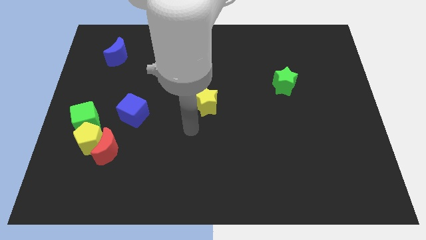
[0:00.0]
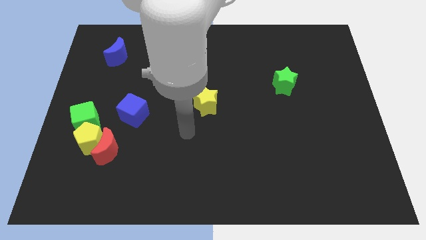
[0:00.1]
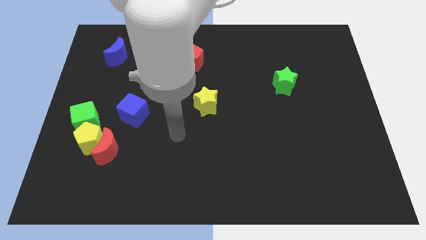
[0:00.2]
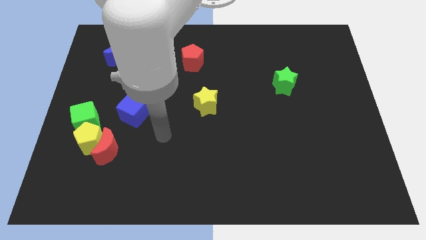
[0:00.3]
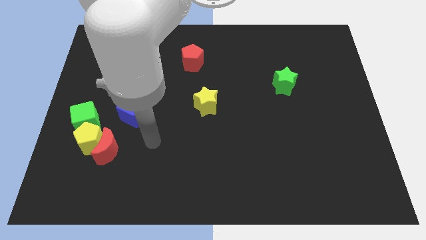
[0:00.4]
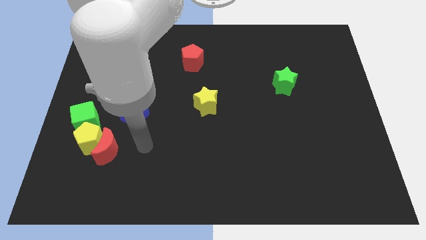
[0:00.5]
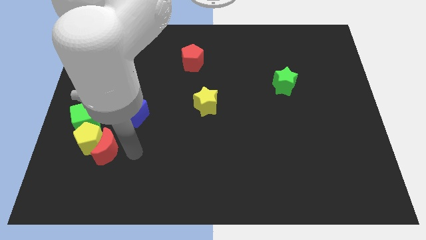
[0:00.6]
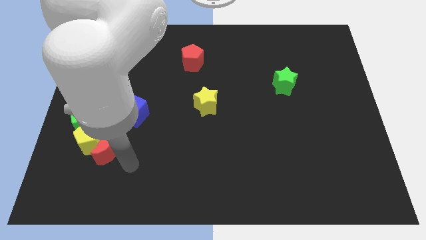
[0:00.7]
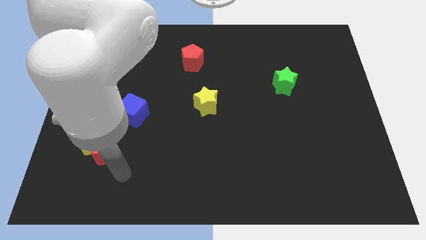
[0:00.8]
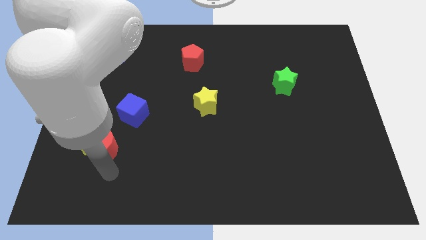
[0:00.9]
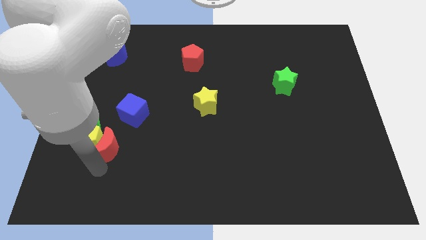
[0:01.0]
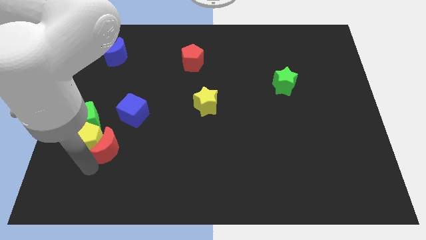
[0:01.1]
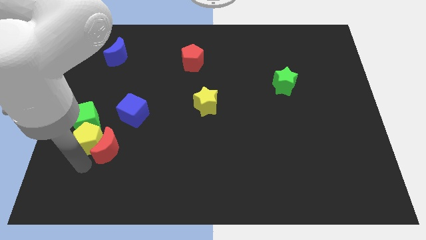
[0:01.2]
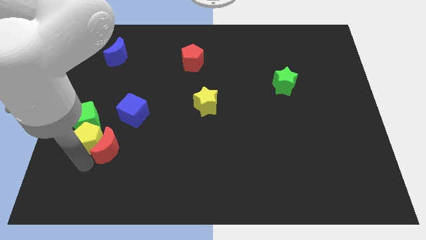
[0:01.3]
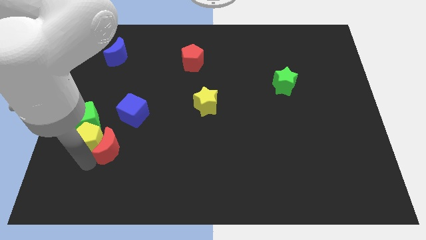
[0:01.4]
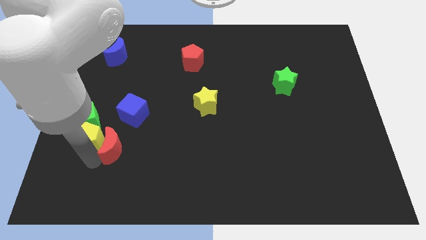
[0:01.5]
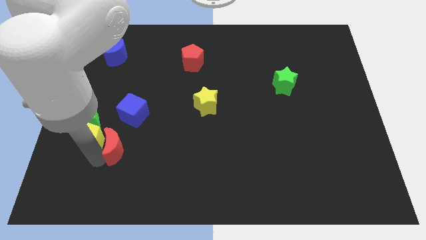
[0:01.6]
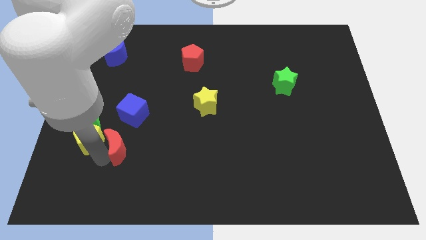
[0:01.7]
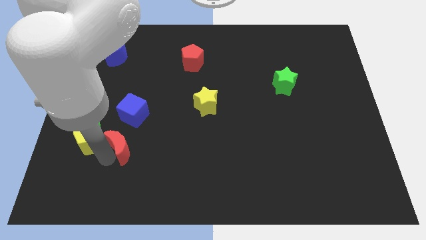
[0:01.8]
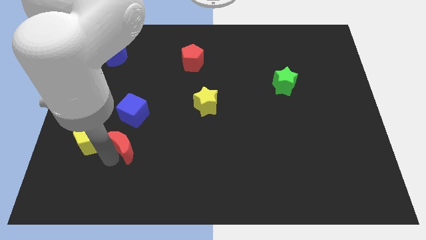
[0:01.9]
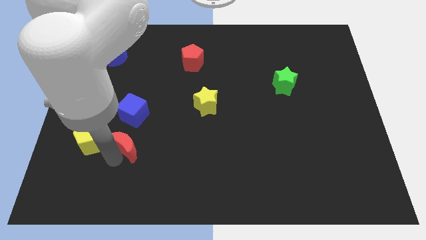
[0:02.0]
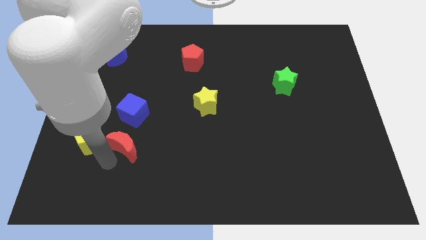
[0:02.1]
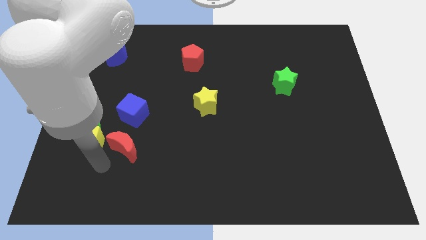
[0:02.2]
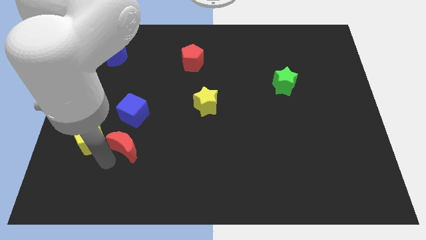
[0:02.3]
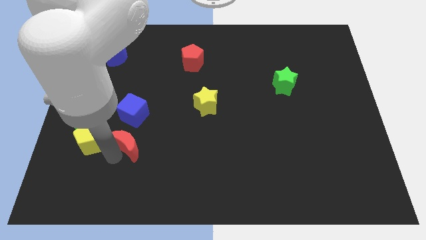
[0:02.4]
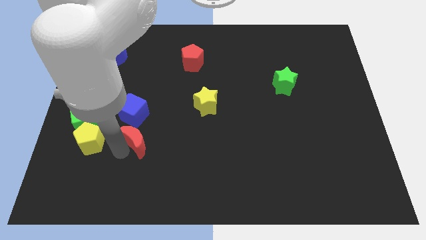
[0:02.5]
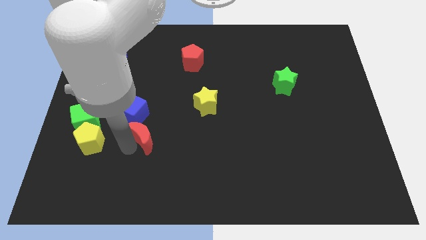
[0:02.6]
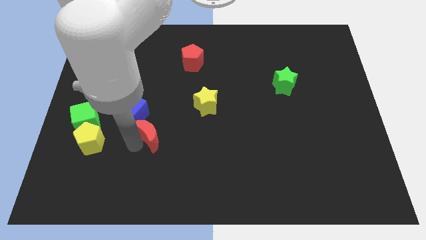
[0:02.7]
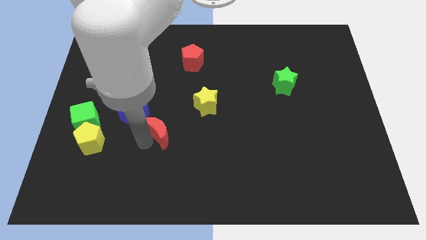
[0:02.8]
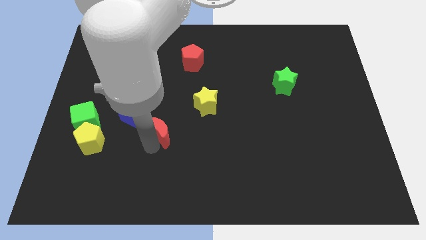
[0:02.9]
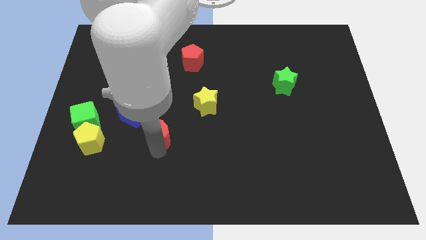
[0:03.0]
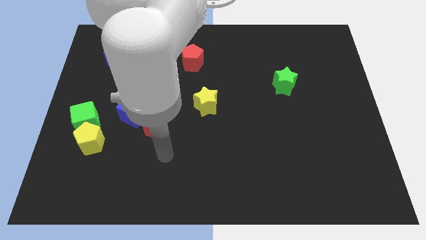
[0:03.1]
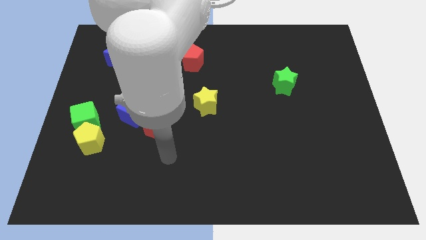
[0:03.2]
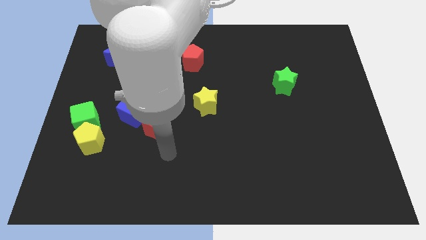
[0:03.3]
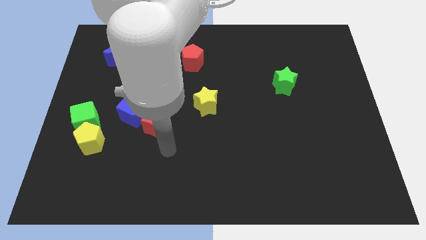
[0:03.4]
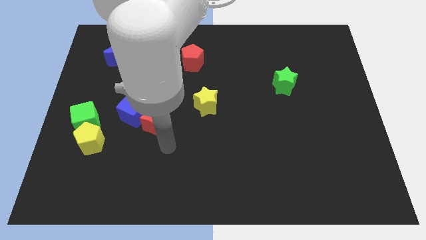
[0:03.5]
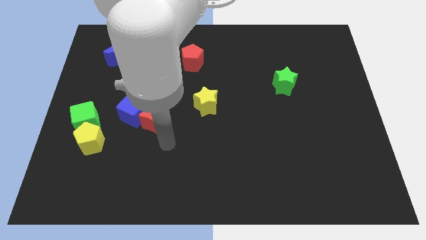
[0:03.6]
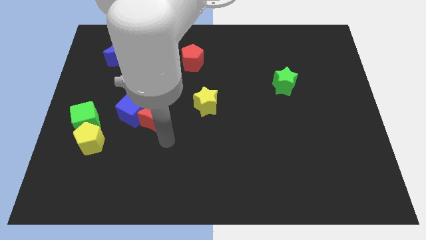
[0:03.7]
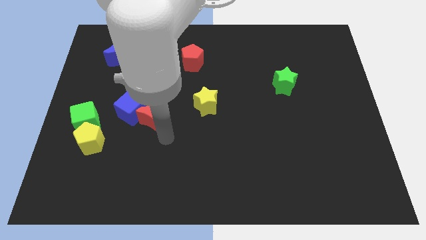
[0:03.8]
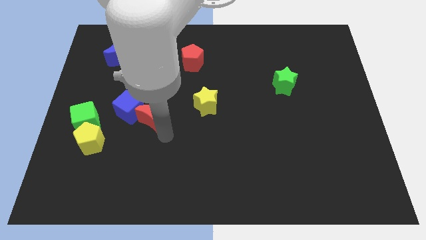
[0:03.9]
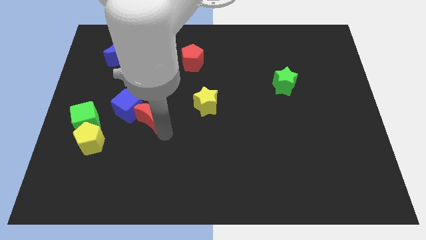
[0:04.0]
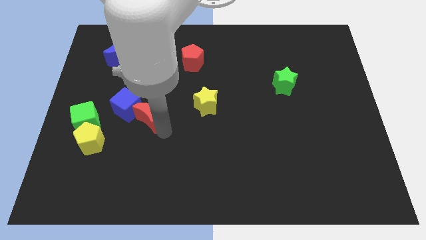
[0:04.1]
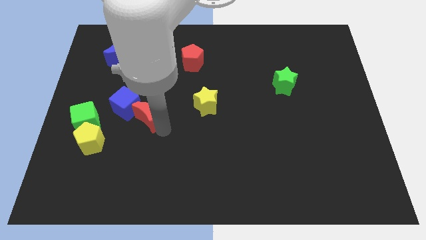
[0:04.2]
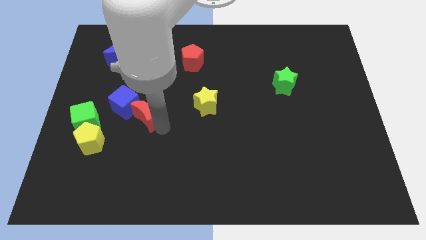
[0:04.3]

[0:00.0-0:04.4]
move the red moon somewhat up

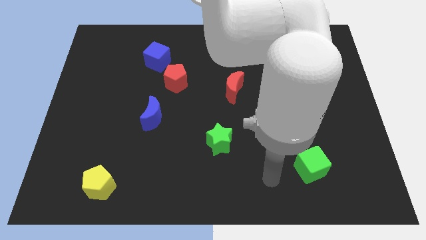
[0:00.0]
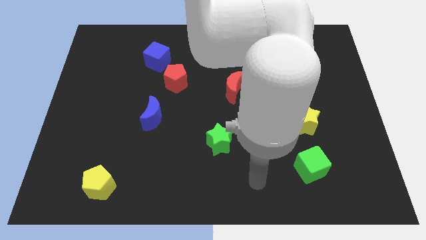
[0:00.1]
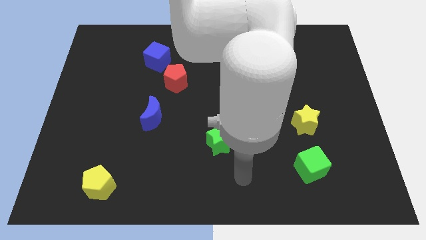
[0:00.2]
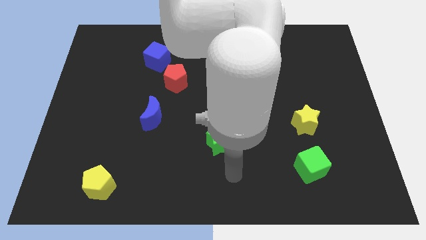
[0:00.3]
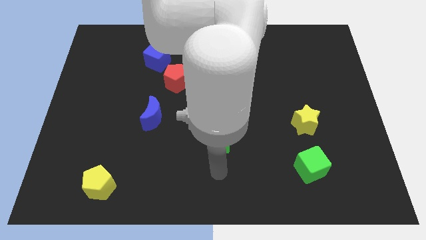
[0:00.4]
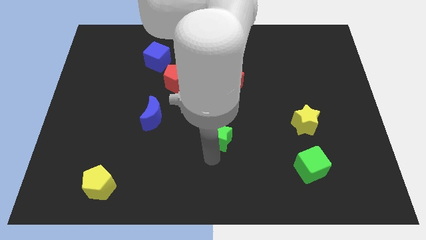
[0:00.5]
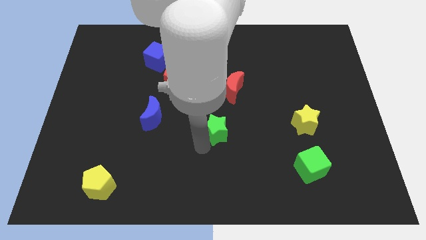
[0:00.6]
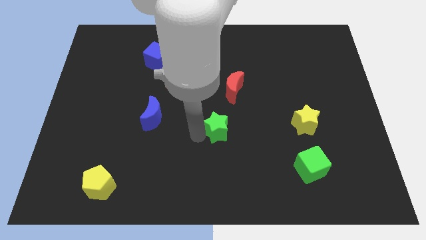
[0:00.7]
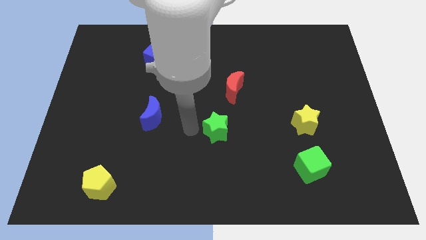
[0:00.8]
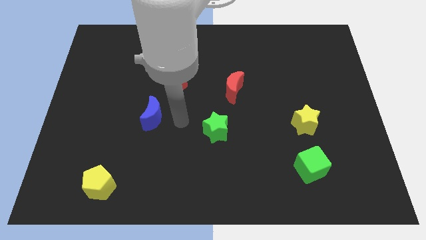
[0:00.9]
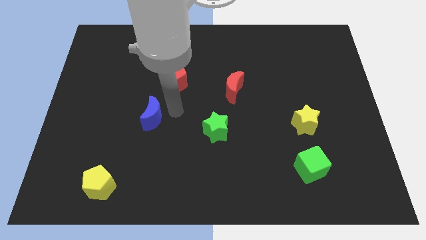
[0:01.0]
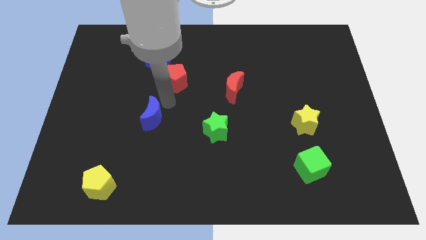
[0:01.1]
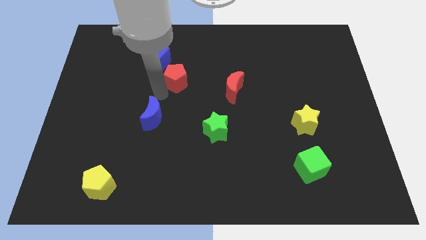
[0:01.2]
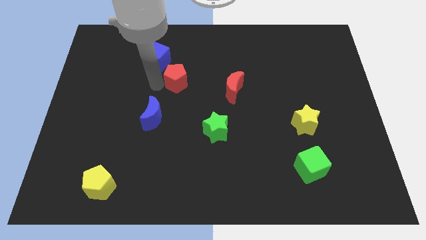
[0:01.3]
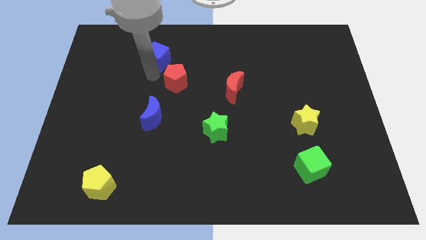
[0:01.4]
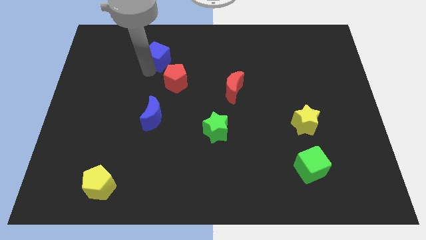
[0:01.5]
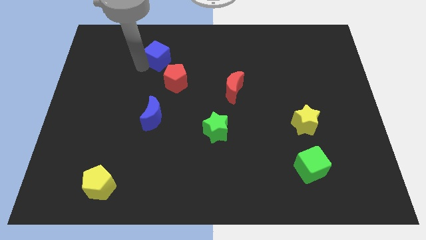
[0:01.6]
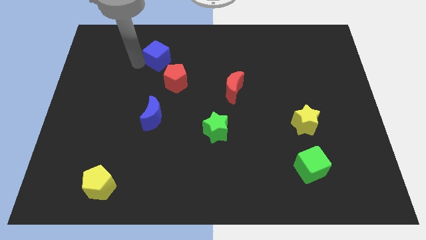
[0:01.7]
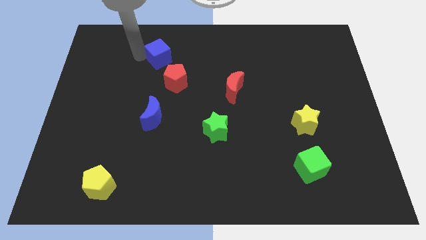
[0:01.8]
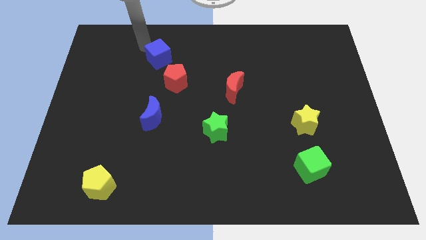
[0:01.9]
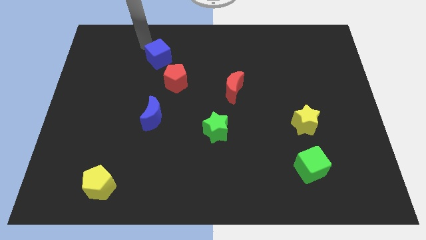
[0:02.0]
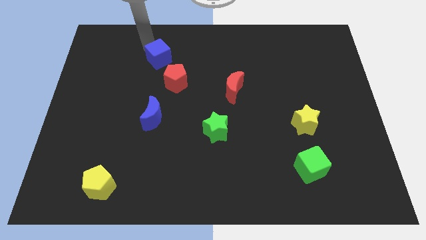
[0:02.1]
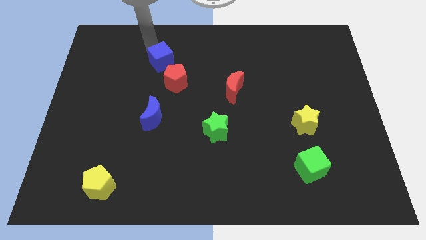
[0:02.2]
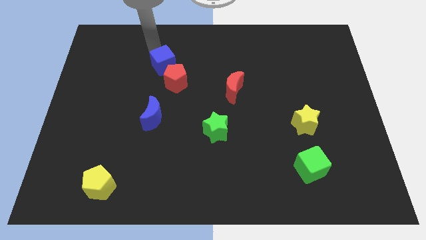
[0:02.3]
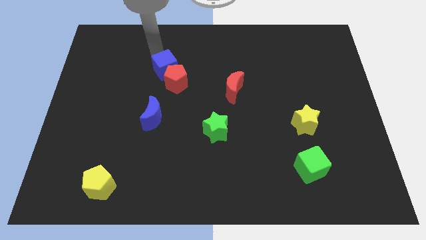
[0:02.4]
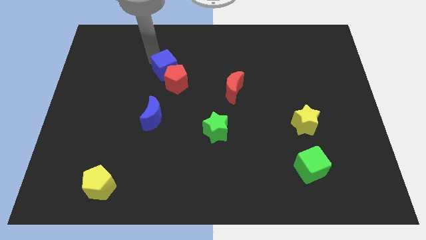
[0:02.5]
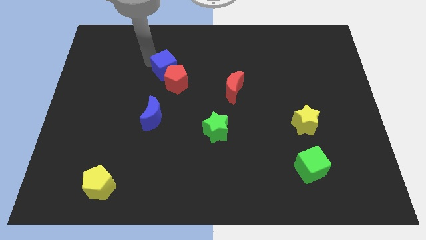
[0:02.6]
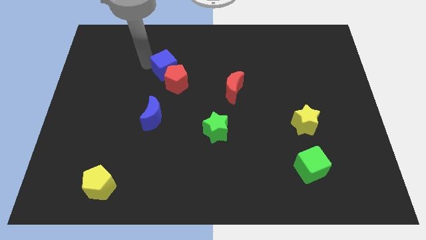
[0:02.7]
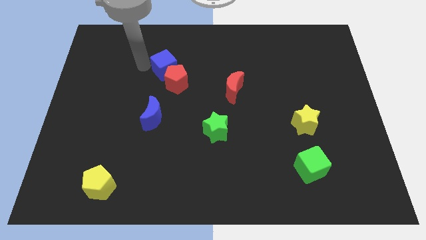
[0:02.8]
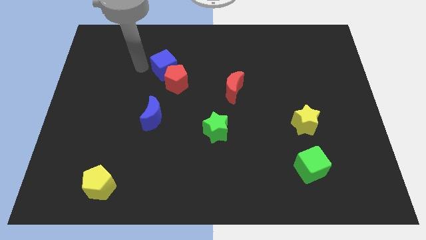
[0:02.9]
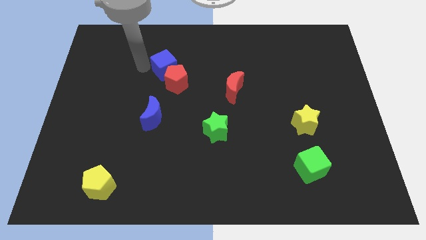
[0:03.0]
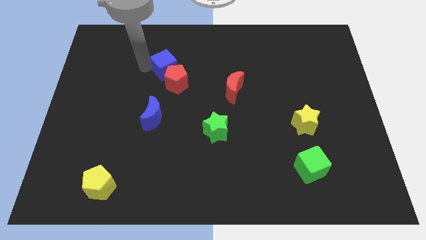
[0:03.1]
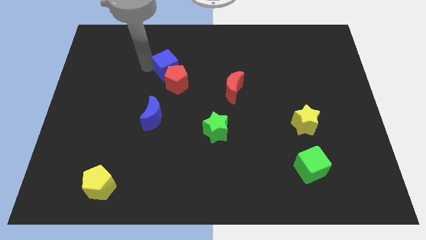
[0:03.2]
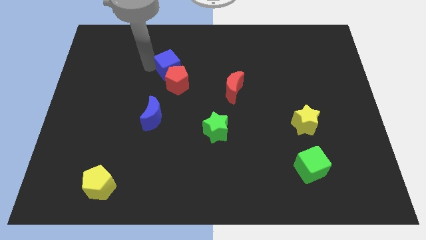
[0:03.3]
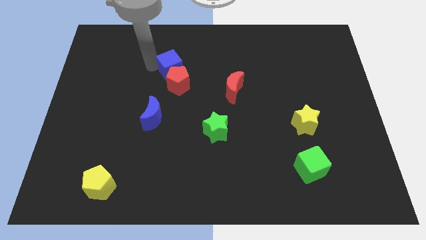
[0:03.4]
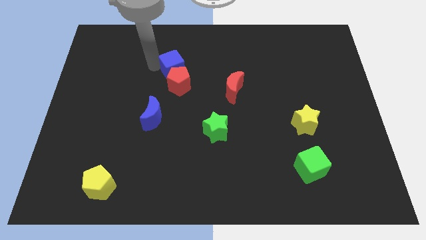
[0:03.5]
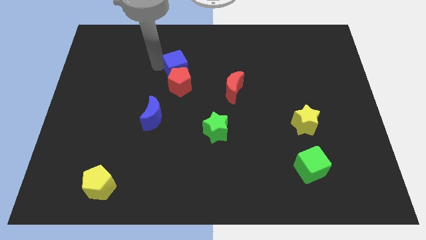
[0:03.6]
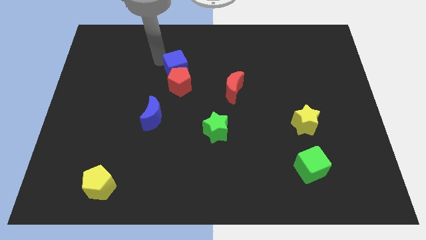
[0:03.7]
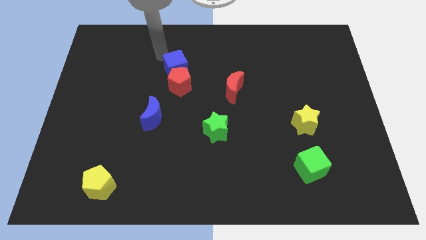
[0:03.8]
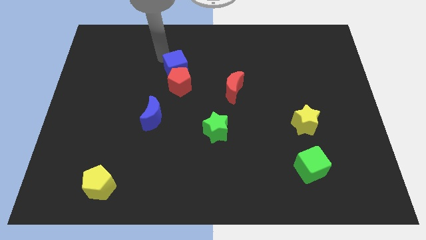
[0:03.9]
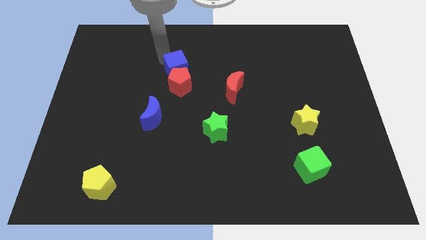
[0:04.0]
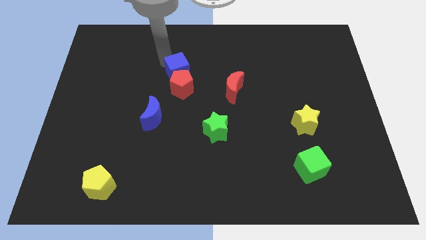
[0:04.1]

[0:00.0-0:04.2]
slightly push the blue cube downwards and to the right
